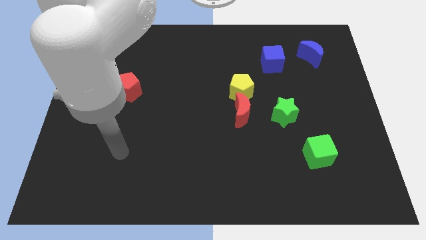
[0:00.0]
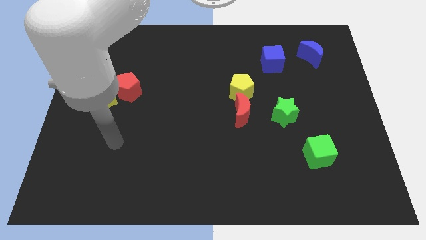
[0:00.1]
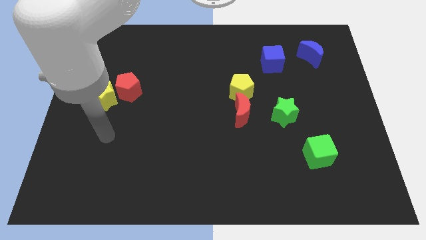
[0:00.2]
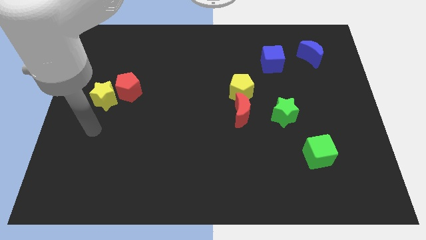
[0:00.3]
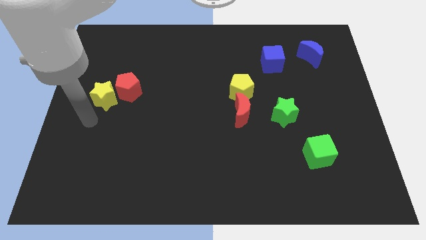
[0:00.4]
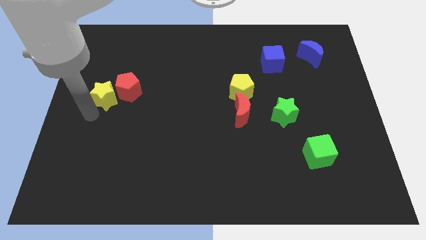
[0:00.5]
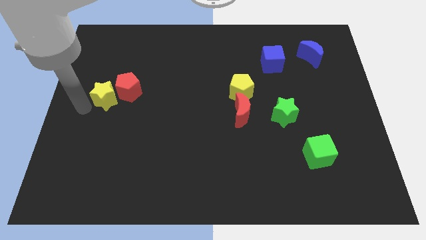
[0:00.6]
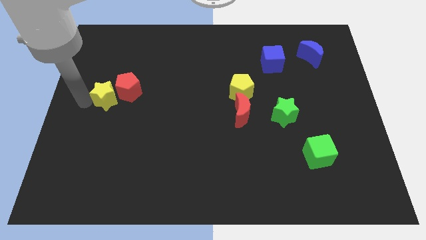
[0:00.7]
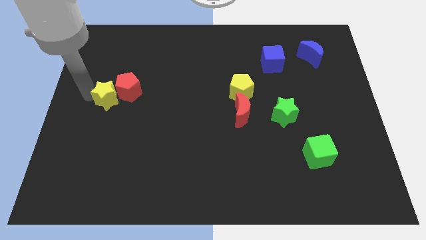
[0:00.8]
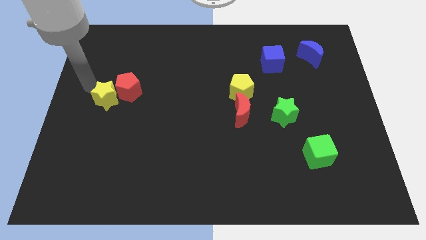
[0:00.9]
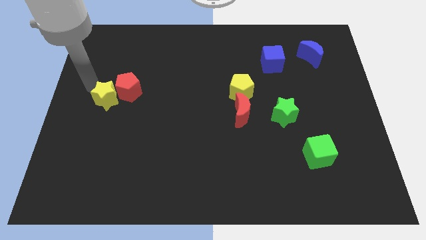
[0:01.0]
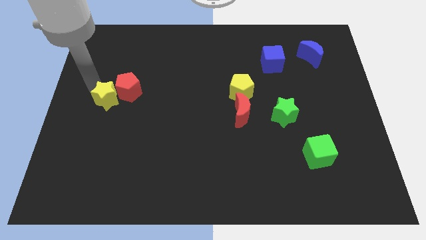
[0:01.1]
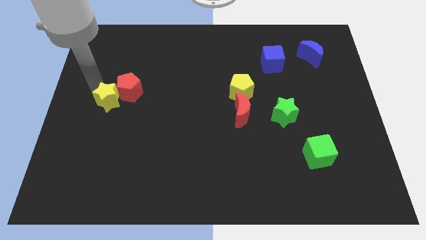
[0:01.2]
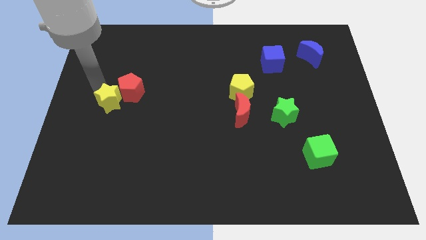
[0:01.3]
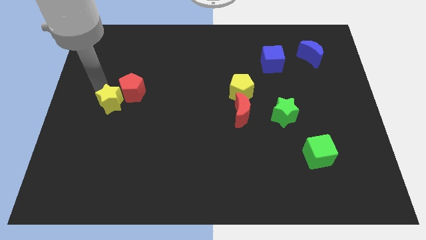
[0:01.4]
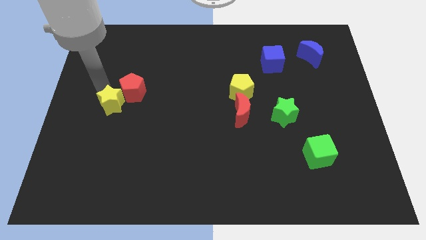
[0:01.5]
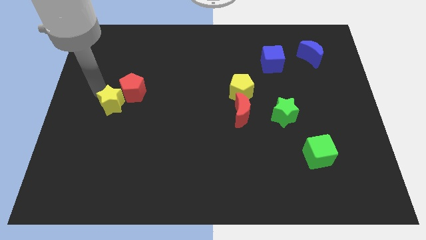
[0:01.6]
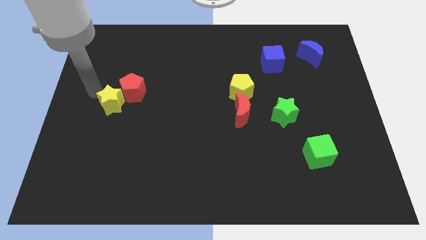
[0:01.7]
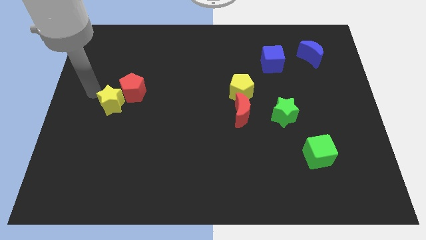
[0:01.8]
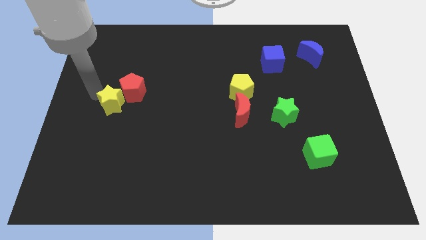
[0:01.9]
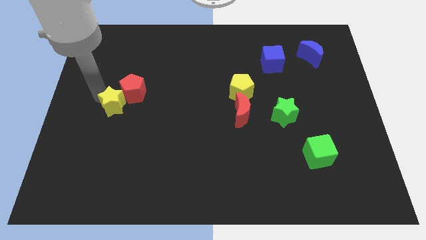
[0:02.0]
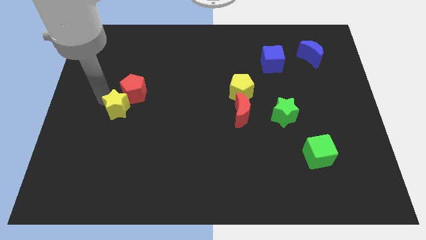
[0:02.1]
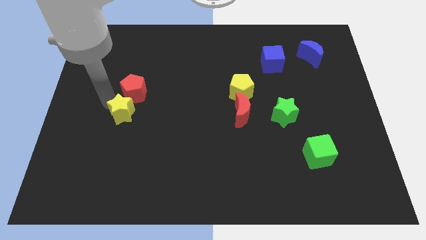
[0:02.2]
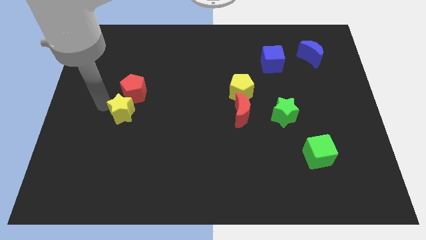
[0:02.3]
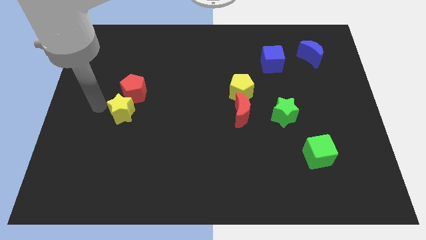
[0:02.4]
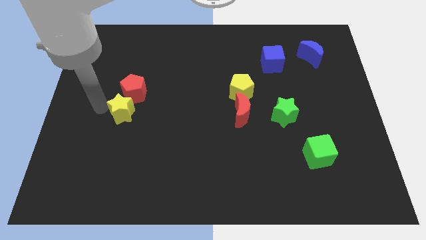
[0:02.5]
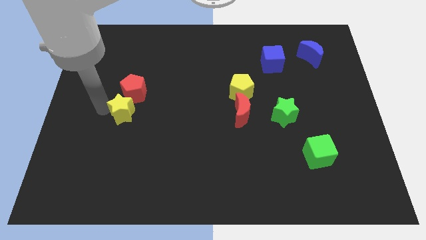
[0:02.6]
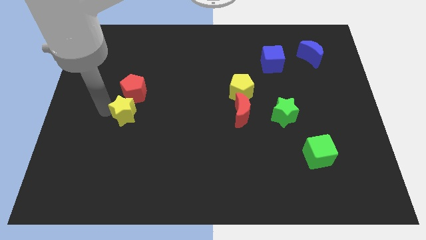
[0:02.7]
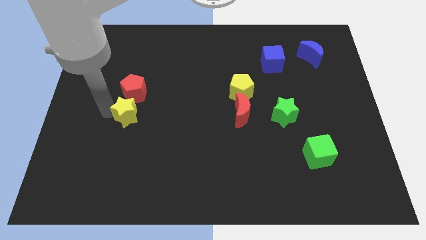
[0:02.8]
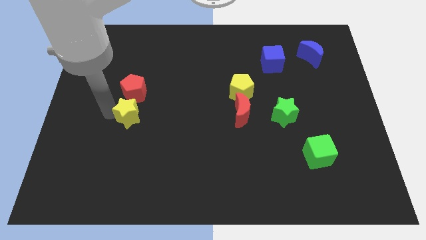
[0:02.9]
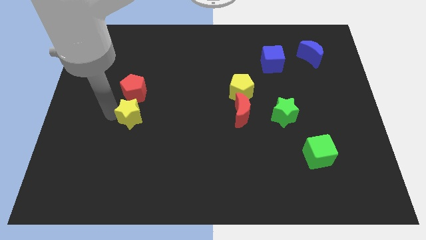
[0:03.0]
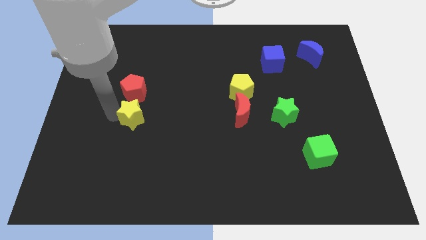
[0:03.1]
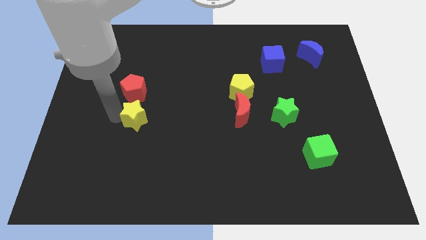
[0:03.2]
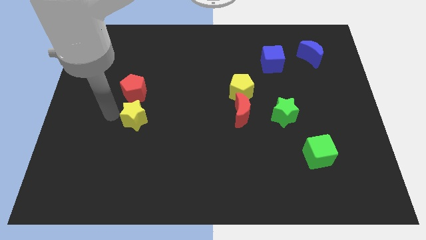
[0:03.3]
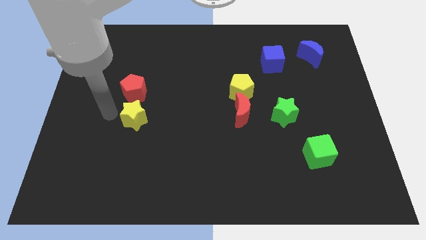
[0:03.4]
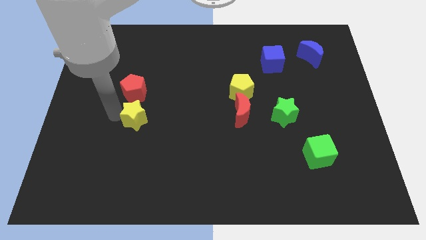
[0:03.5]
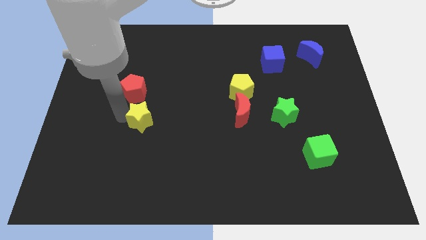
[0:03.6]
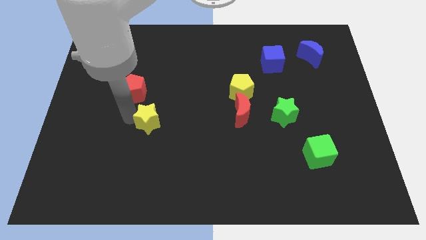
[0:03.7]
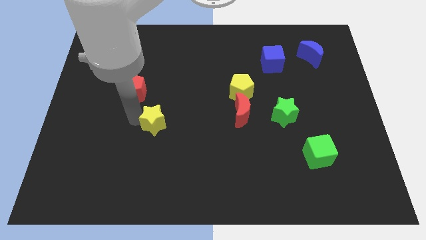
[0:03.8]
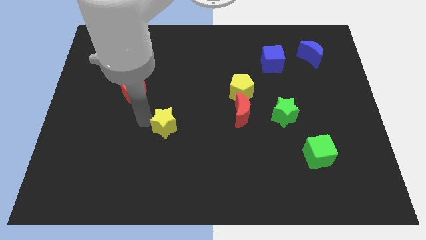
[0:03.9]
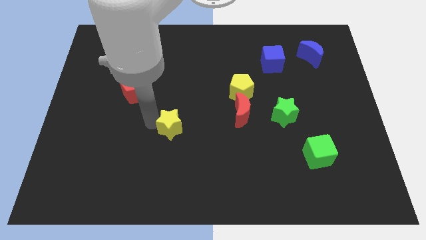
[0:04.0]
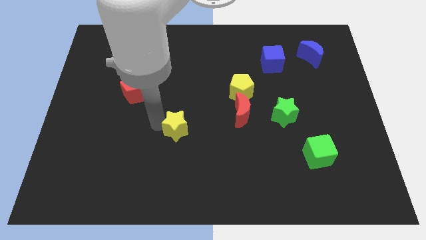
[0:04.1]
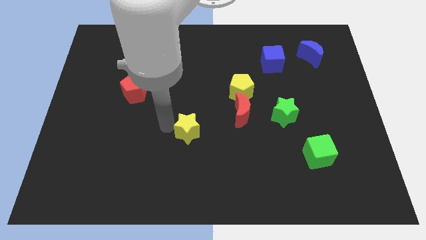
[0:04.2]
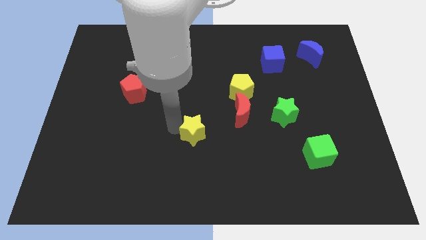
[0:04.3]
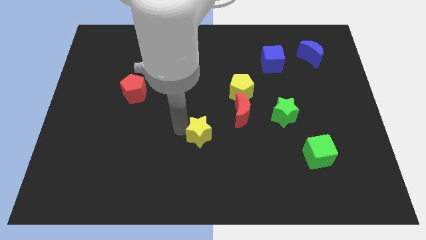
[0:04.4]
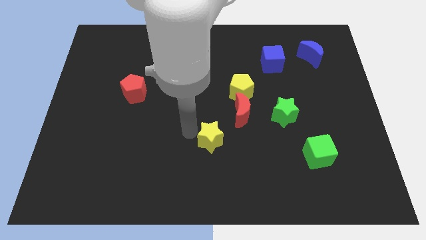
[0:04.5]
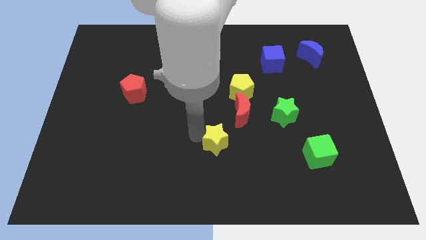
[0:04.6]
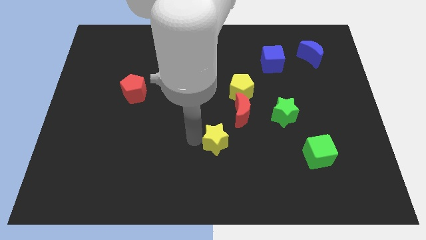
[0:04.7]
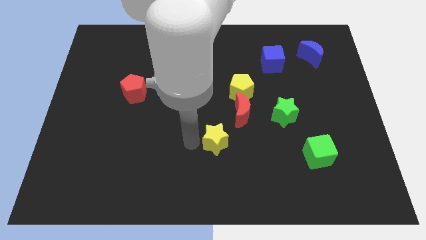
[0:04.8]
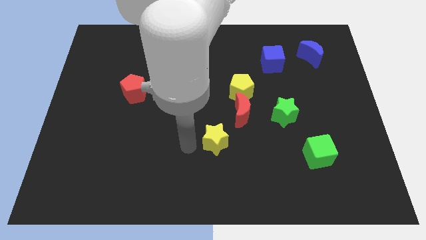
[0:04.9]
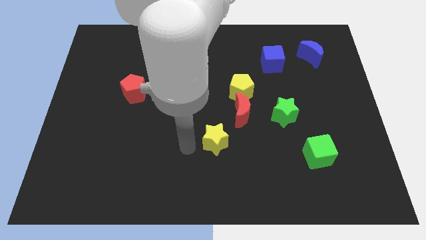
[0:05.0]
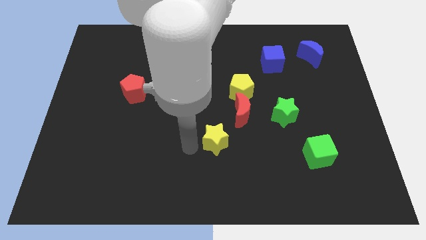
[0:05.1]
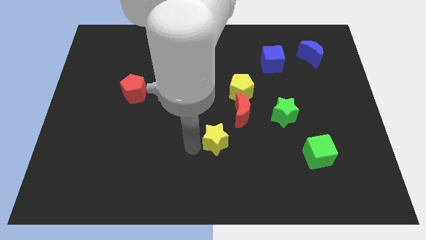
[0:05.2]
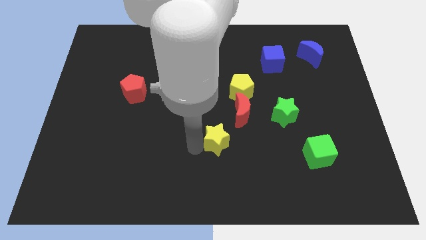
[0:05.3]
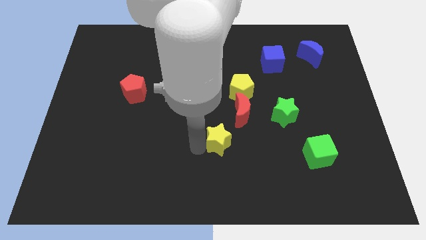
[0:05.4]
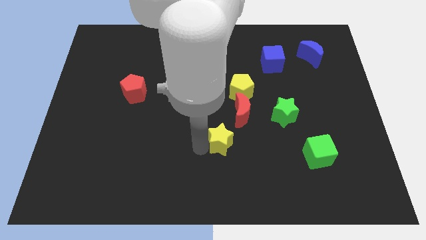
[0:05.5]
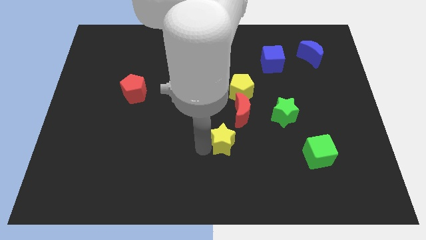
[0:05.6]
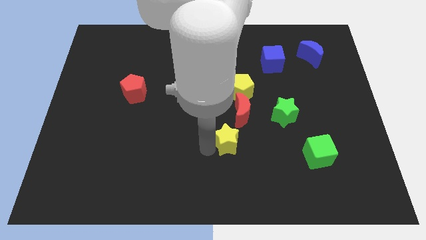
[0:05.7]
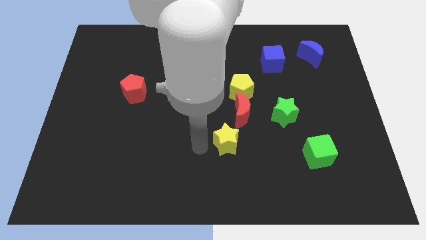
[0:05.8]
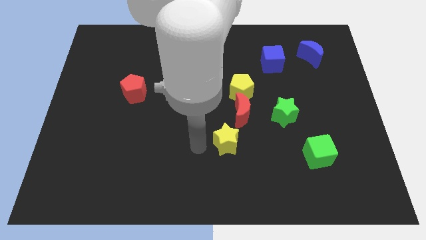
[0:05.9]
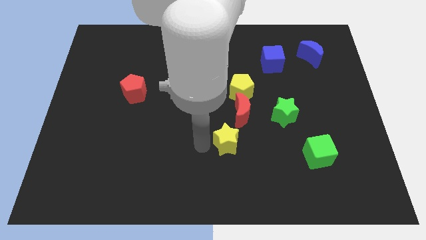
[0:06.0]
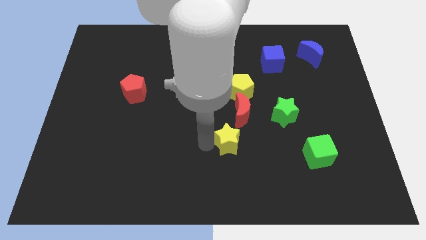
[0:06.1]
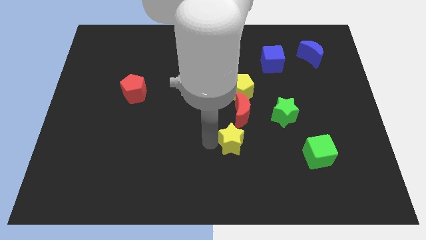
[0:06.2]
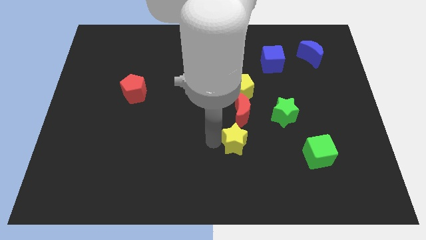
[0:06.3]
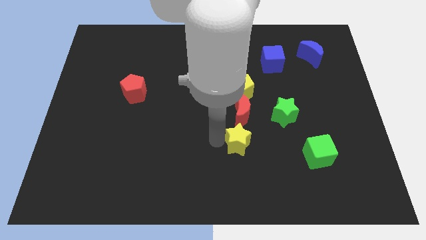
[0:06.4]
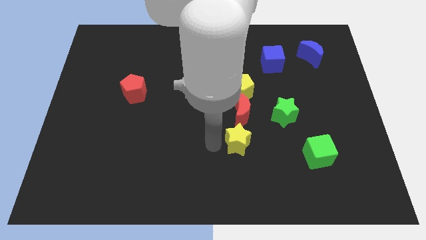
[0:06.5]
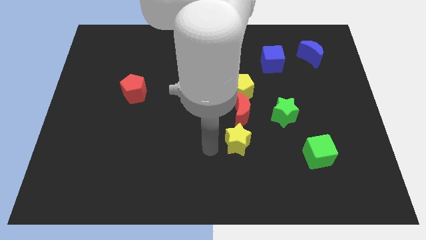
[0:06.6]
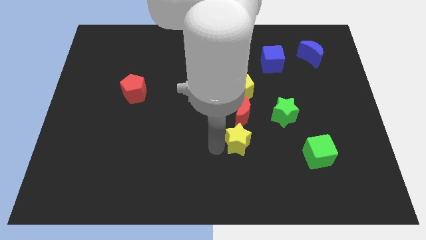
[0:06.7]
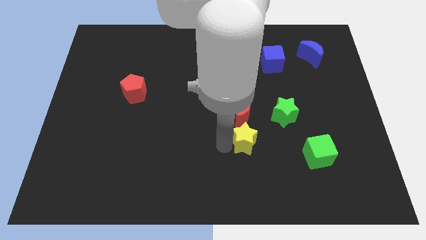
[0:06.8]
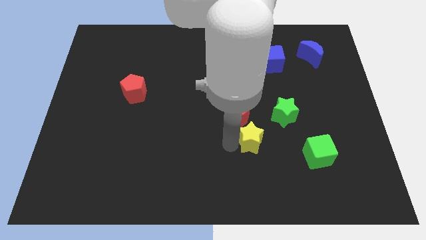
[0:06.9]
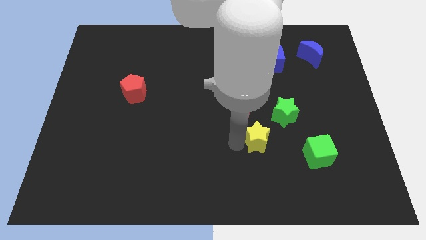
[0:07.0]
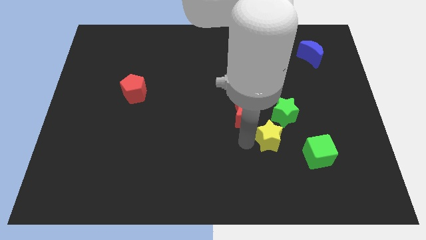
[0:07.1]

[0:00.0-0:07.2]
push the yellow star to the top left of the green cube

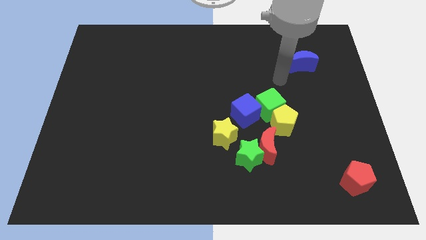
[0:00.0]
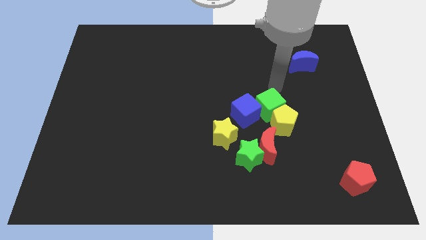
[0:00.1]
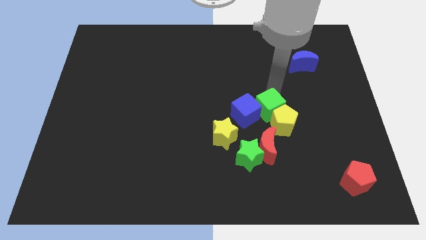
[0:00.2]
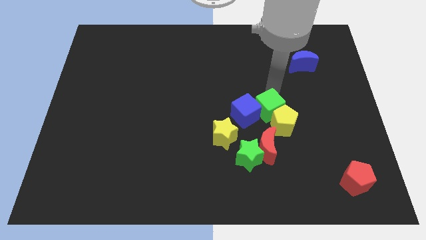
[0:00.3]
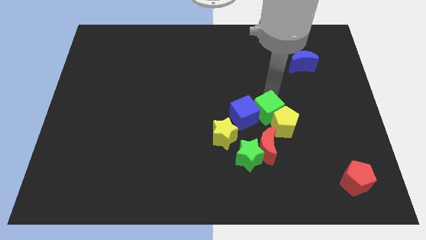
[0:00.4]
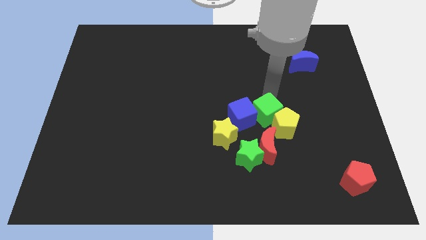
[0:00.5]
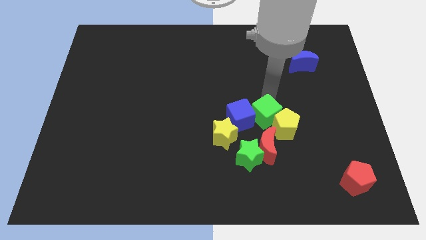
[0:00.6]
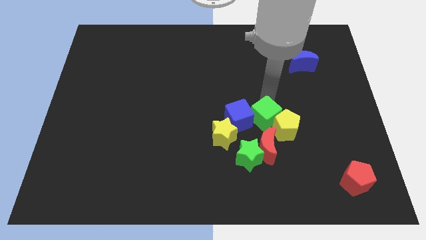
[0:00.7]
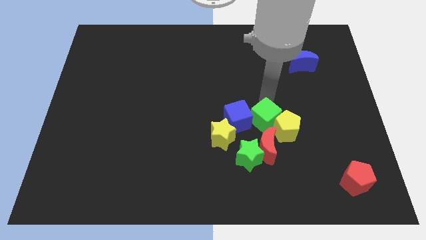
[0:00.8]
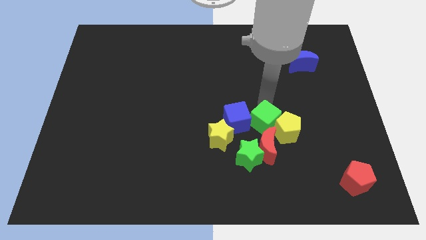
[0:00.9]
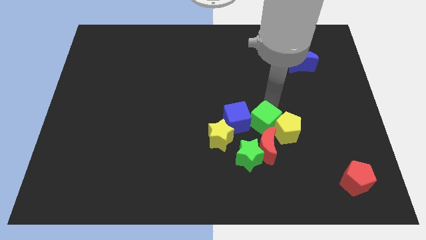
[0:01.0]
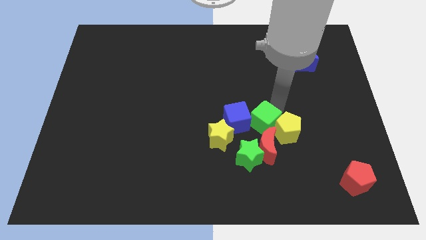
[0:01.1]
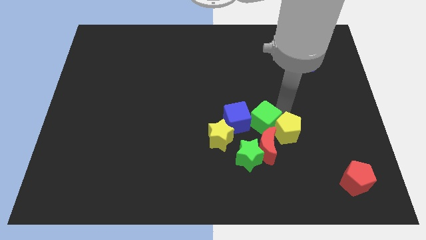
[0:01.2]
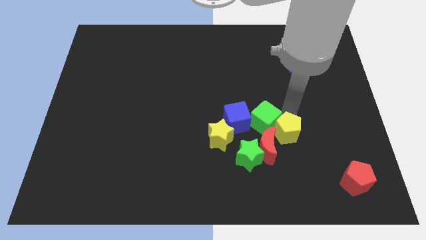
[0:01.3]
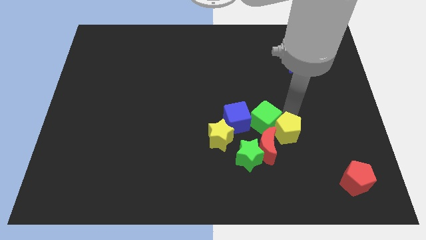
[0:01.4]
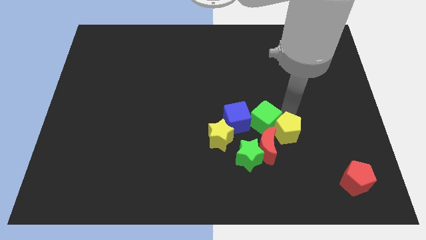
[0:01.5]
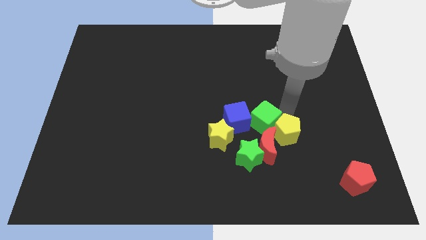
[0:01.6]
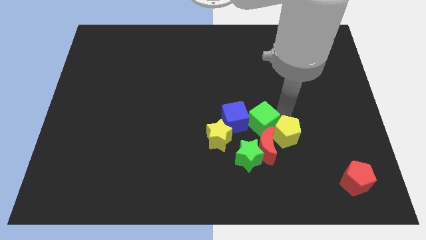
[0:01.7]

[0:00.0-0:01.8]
put the green cube diagonally up and to the left of the red moon
